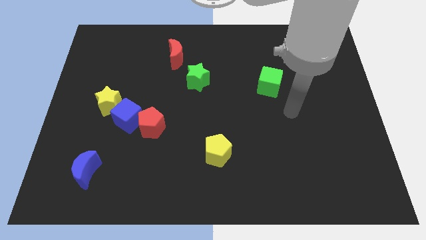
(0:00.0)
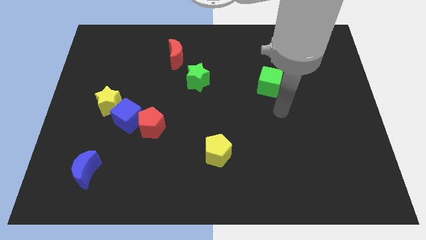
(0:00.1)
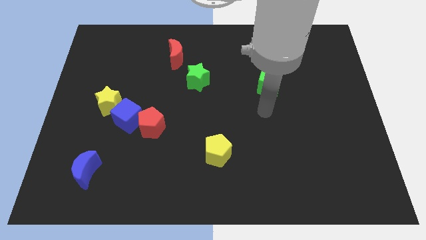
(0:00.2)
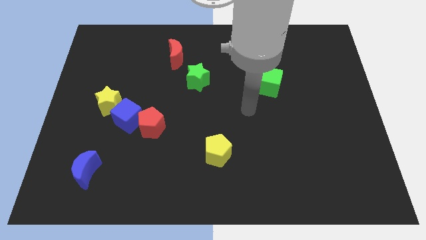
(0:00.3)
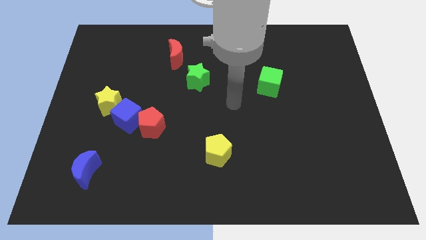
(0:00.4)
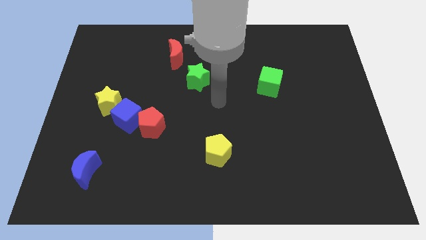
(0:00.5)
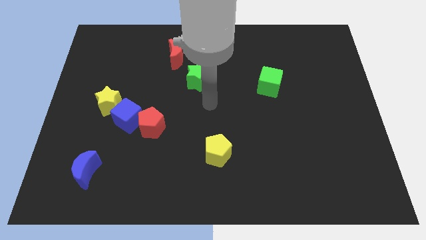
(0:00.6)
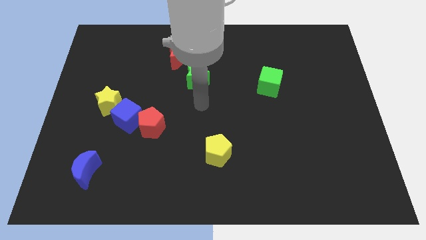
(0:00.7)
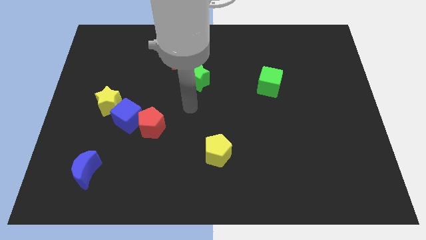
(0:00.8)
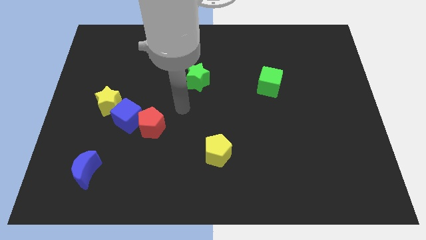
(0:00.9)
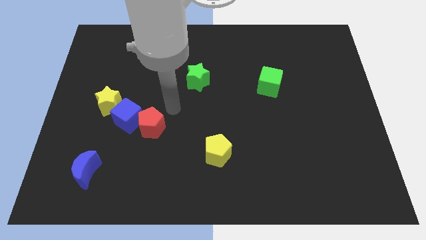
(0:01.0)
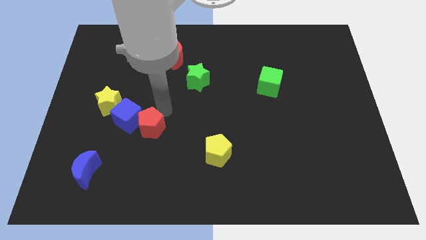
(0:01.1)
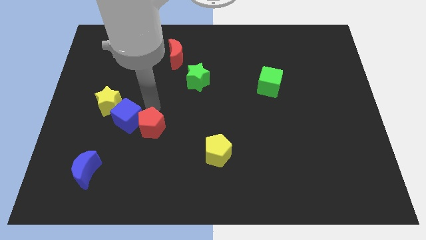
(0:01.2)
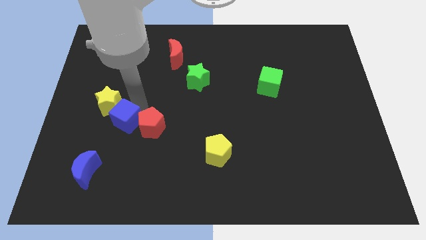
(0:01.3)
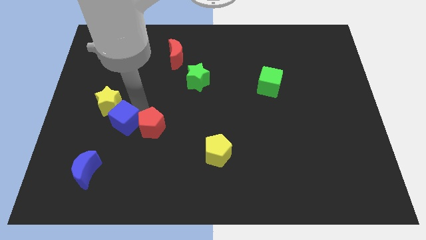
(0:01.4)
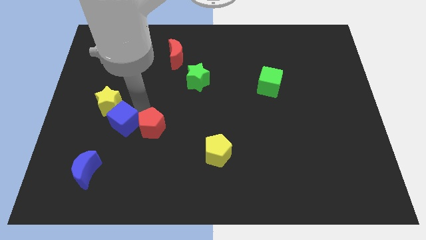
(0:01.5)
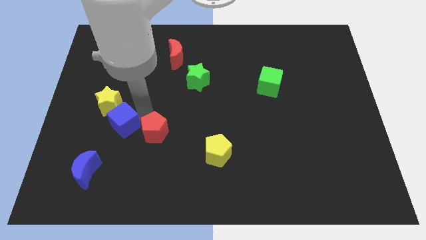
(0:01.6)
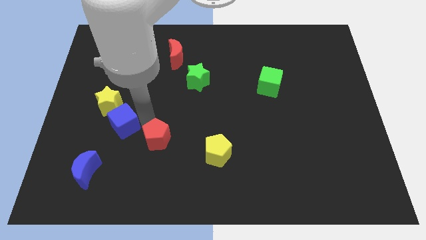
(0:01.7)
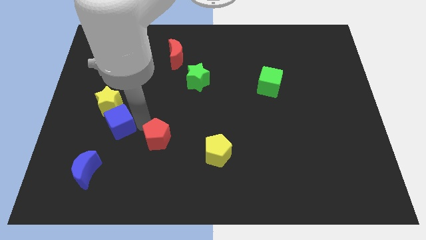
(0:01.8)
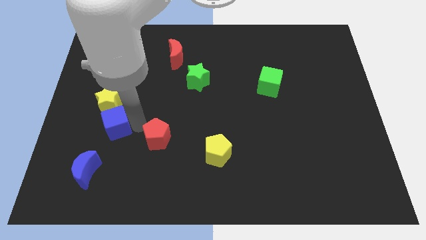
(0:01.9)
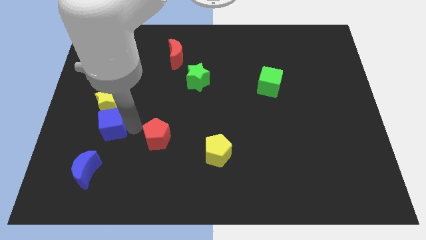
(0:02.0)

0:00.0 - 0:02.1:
move the red pentagon away from the blue cube

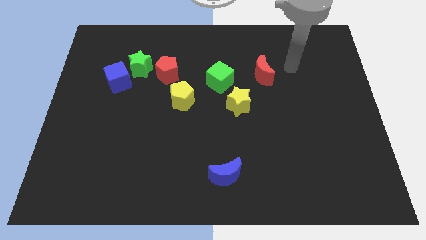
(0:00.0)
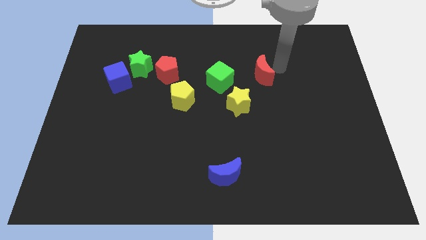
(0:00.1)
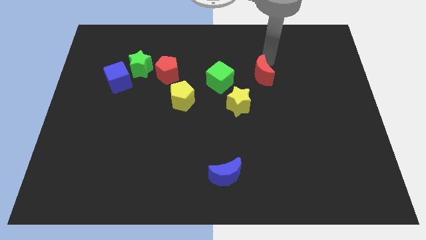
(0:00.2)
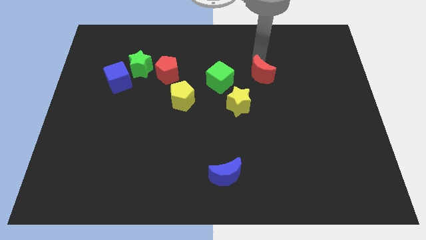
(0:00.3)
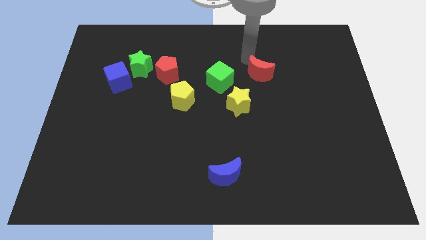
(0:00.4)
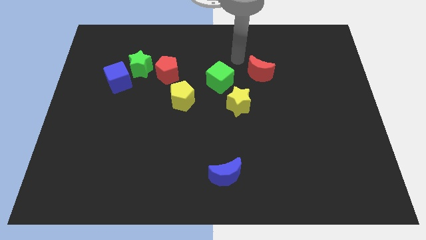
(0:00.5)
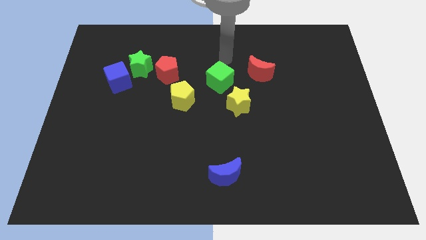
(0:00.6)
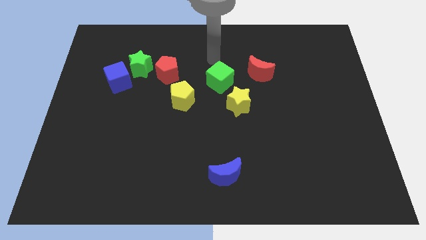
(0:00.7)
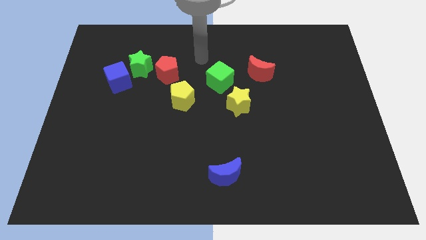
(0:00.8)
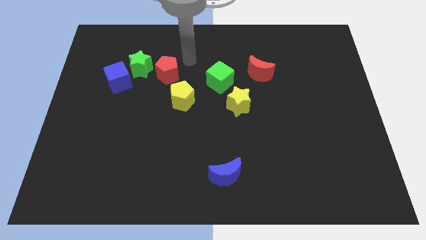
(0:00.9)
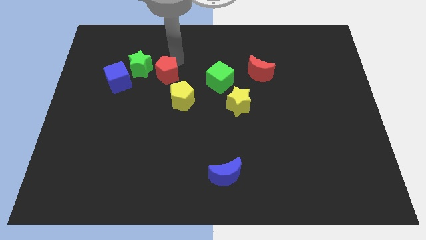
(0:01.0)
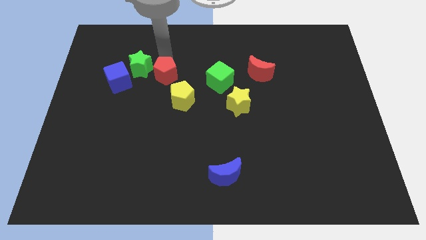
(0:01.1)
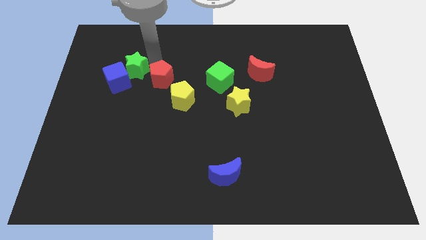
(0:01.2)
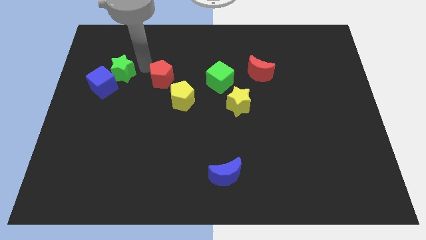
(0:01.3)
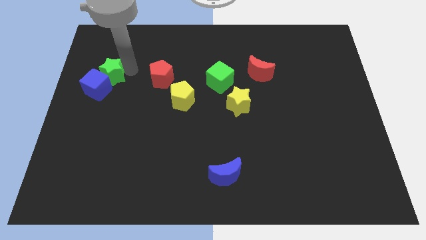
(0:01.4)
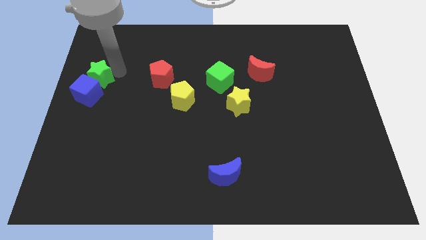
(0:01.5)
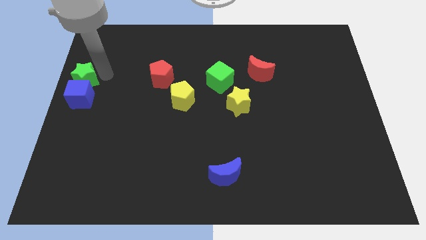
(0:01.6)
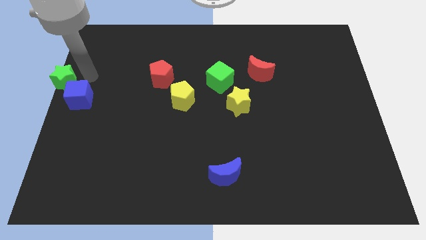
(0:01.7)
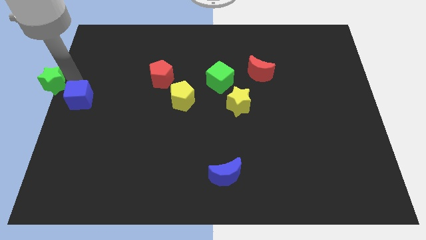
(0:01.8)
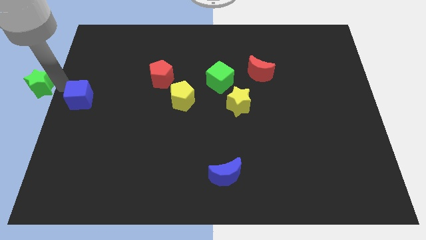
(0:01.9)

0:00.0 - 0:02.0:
separate the blue cube from the green star

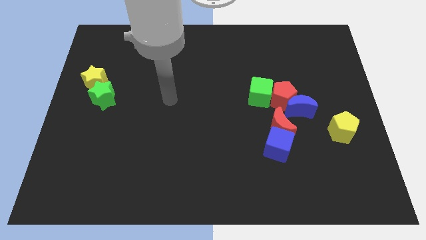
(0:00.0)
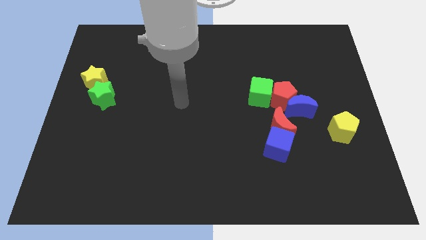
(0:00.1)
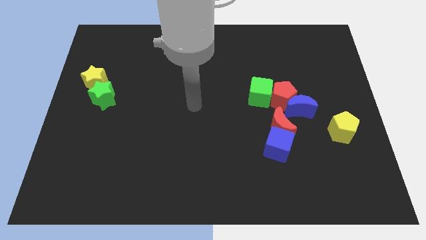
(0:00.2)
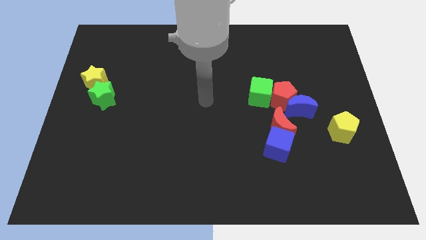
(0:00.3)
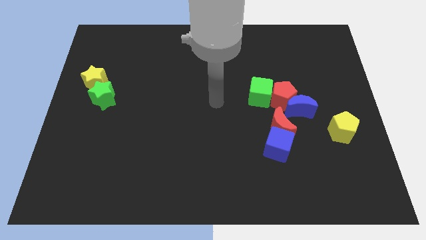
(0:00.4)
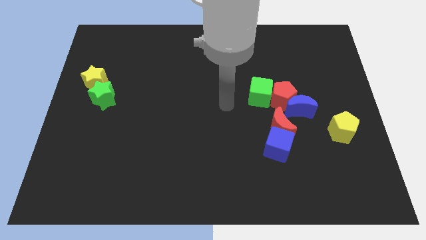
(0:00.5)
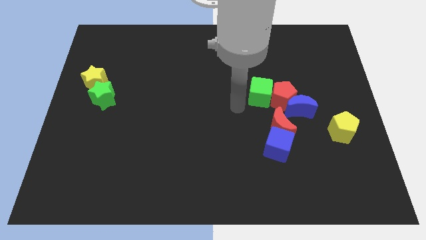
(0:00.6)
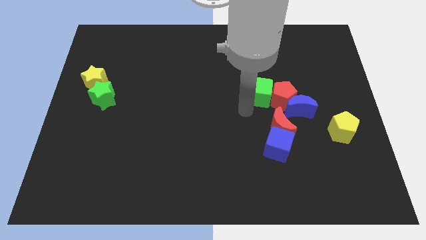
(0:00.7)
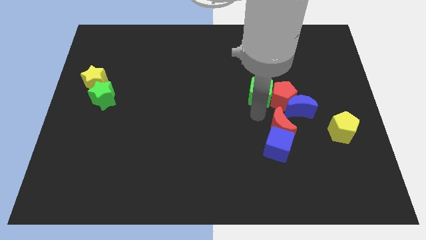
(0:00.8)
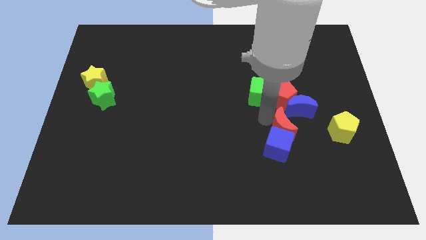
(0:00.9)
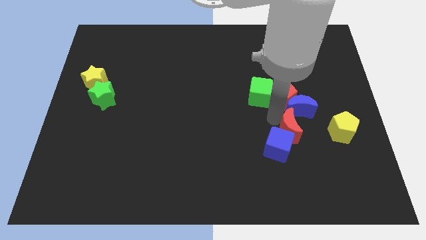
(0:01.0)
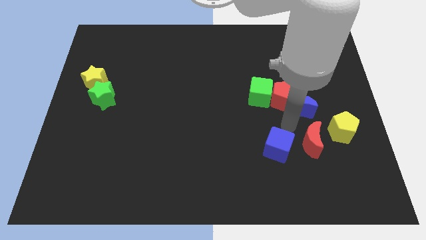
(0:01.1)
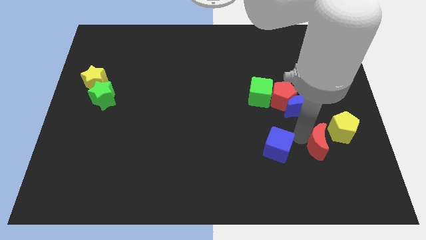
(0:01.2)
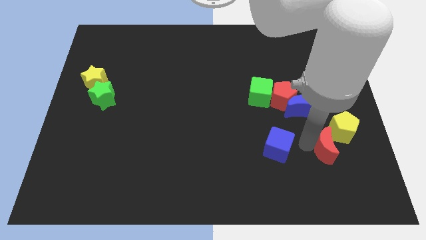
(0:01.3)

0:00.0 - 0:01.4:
separate the blue cube from the red moon

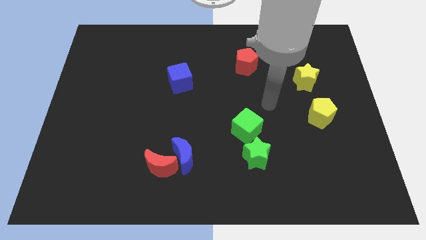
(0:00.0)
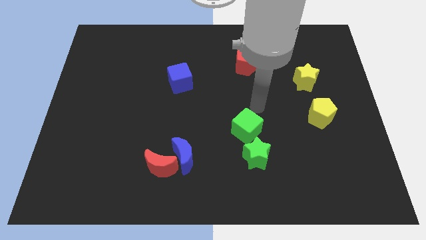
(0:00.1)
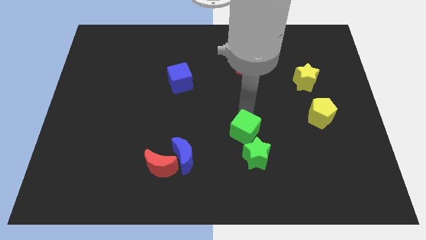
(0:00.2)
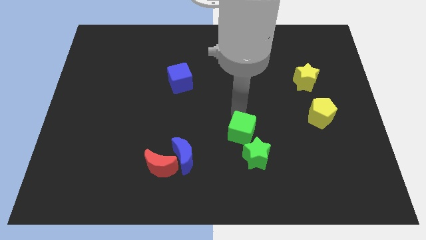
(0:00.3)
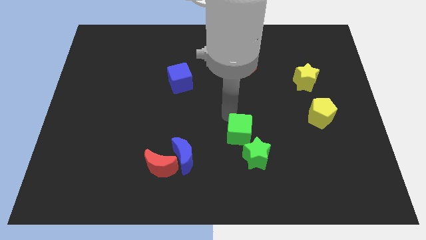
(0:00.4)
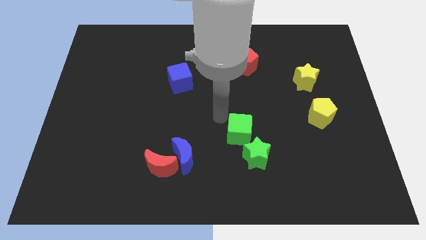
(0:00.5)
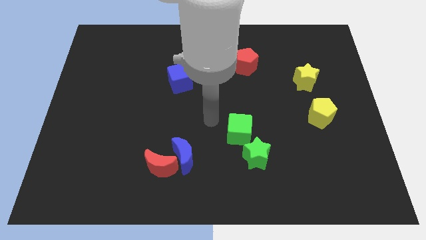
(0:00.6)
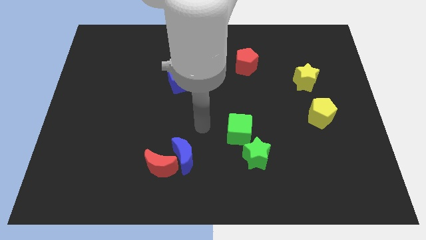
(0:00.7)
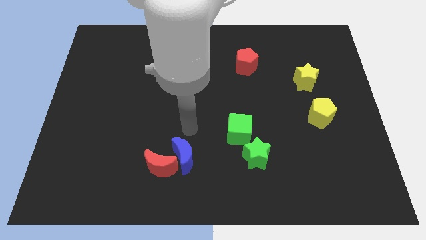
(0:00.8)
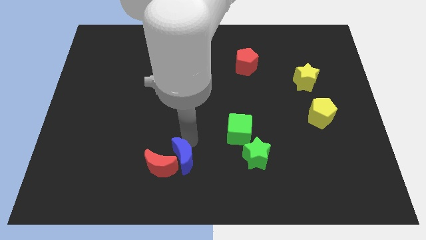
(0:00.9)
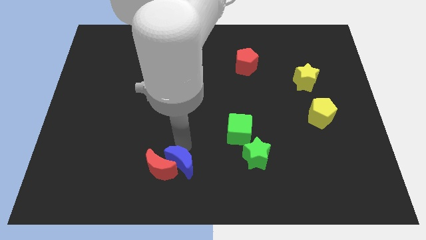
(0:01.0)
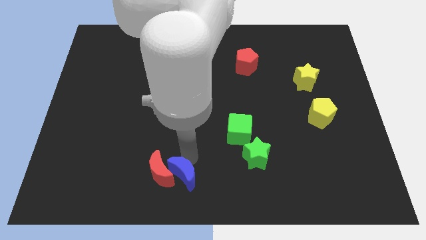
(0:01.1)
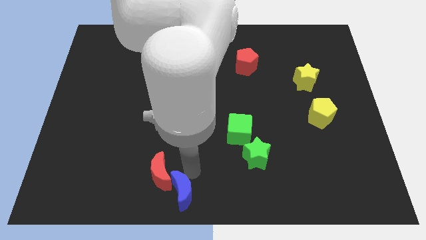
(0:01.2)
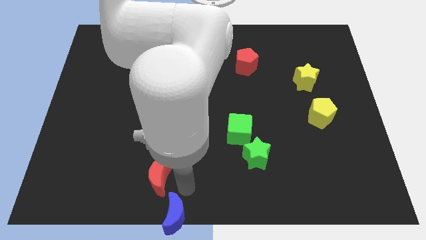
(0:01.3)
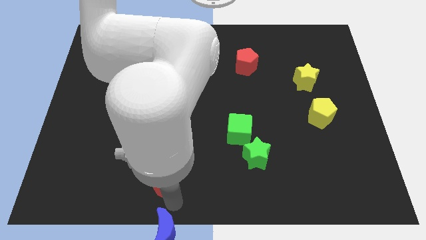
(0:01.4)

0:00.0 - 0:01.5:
pull the red moon apart from the blue moon

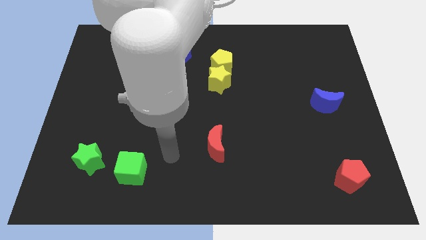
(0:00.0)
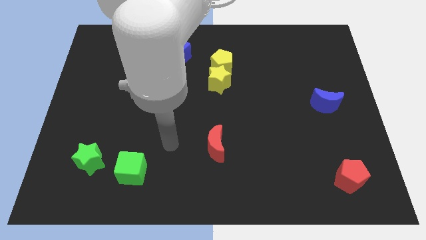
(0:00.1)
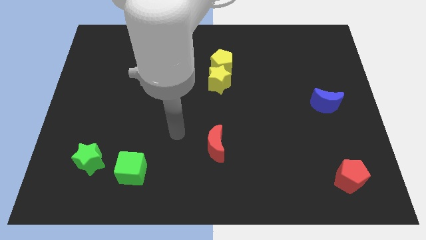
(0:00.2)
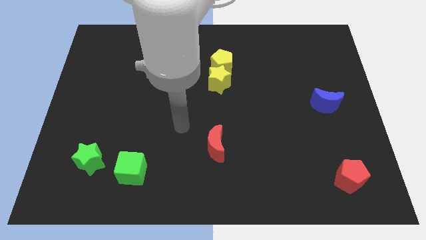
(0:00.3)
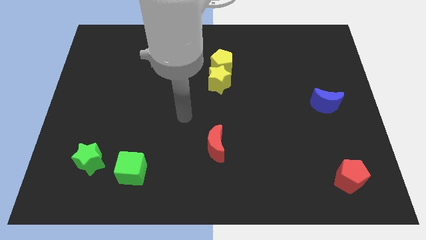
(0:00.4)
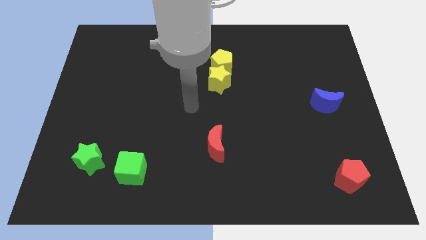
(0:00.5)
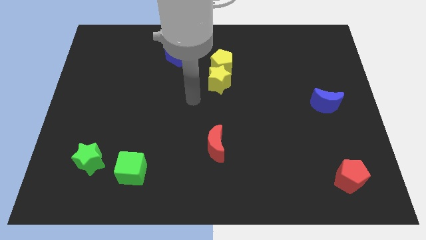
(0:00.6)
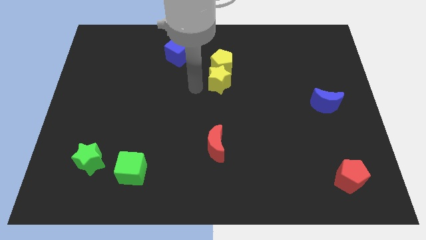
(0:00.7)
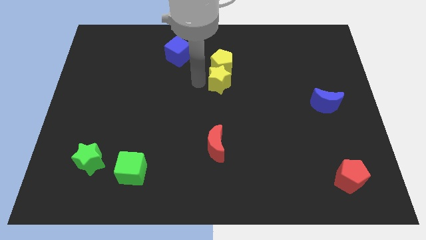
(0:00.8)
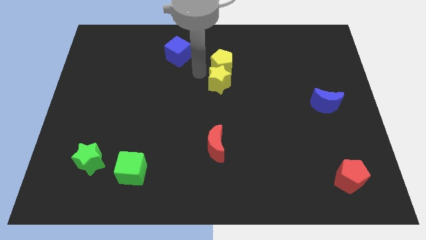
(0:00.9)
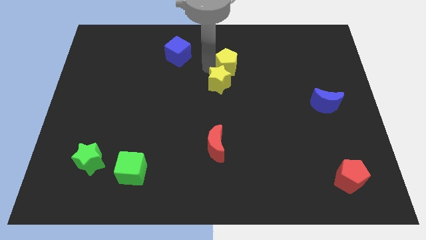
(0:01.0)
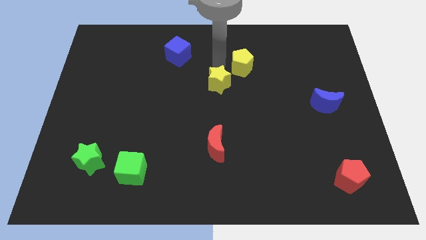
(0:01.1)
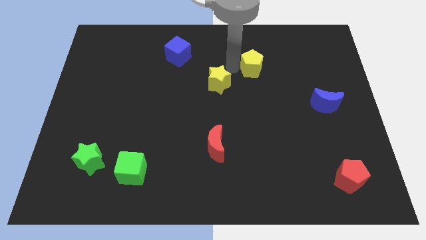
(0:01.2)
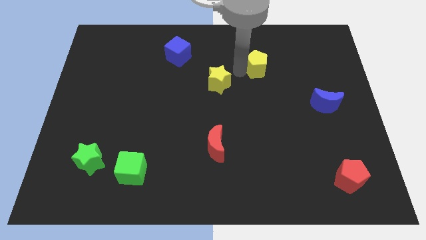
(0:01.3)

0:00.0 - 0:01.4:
move the yellow star away from the yellow pentagon

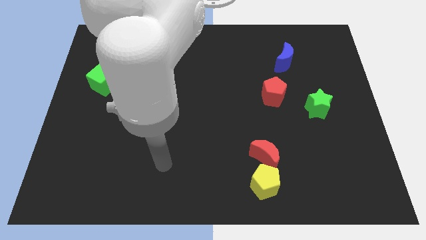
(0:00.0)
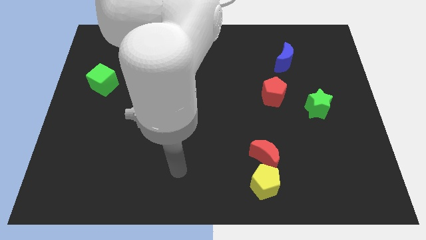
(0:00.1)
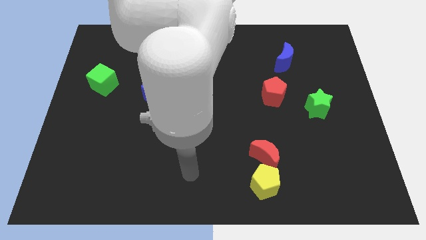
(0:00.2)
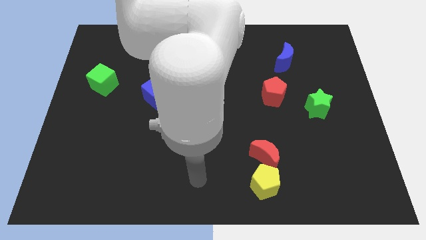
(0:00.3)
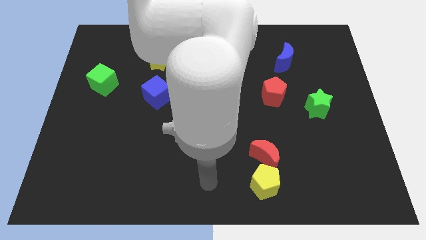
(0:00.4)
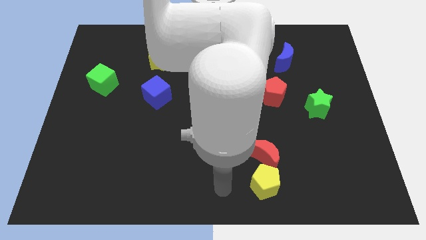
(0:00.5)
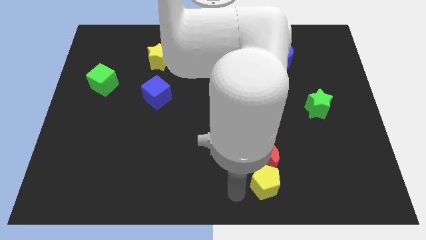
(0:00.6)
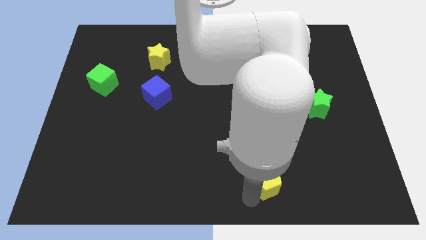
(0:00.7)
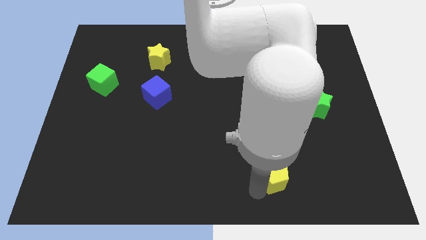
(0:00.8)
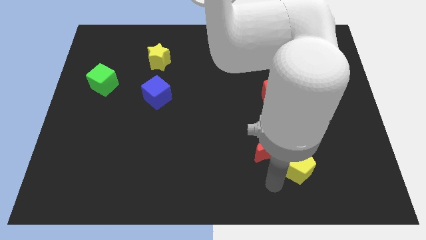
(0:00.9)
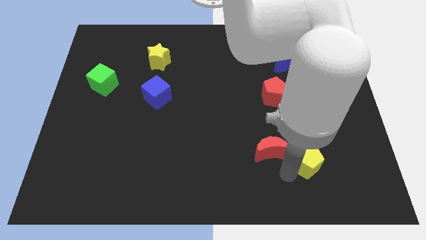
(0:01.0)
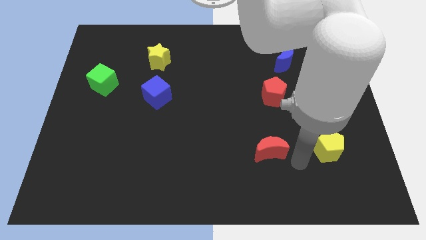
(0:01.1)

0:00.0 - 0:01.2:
separate the red moon from the yellow pentagon
